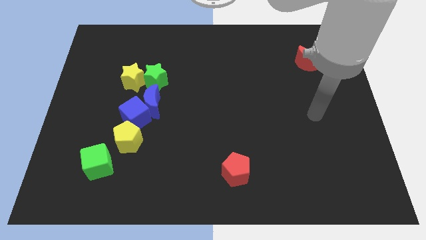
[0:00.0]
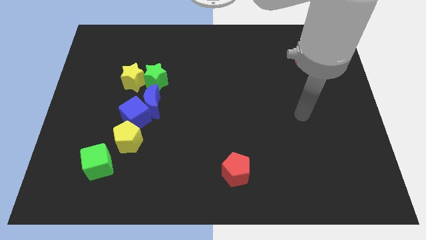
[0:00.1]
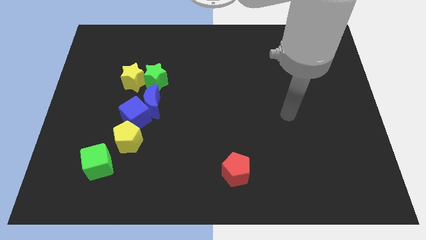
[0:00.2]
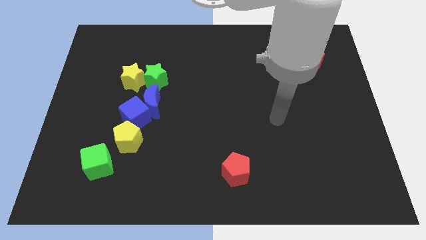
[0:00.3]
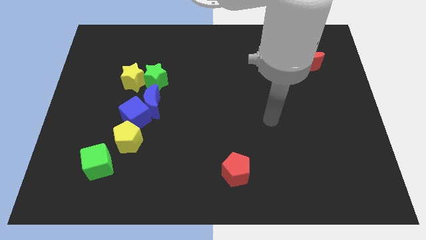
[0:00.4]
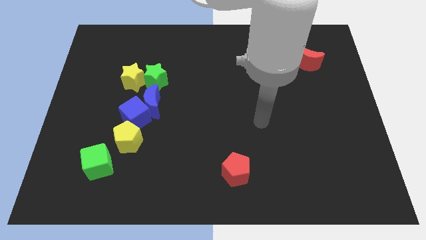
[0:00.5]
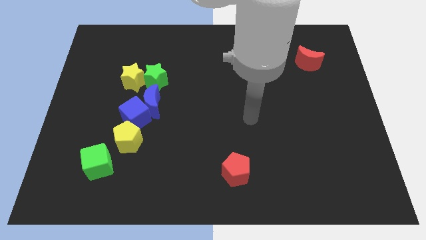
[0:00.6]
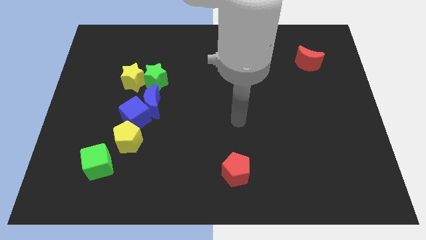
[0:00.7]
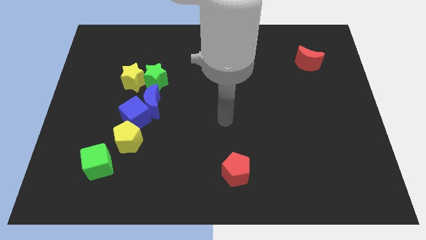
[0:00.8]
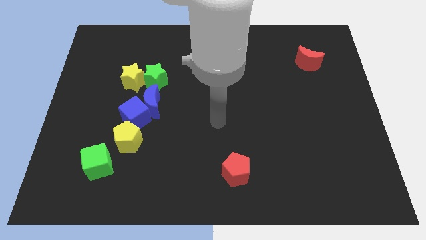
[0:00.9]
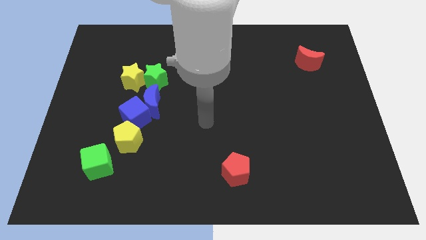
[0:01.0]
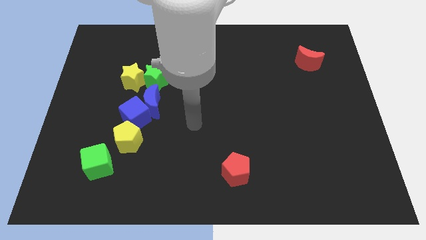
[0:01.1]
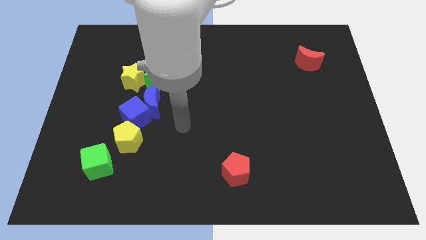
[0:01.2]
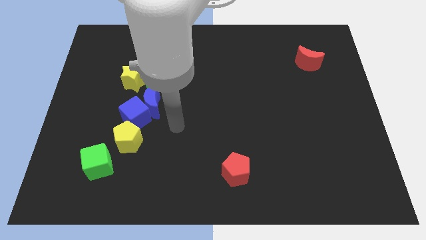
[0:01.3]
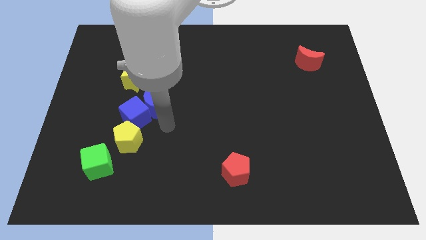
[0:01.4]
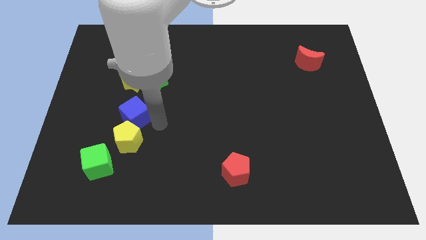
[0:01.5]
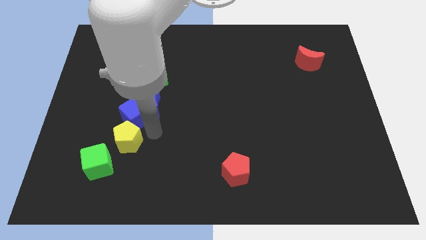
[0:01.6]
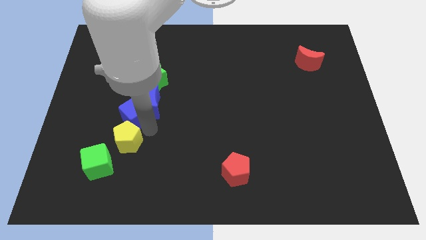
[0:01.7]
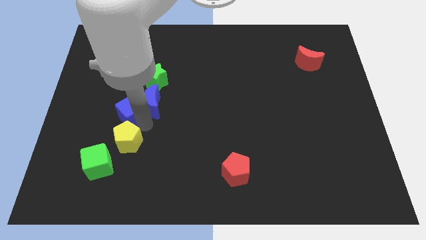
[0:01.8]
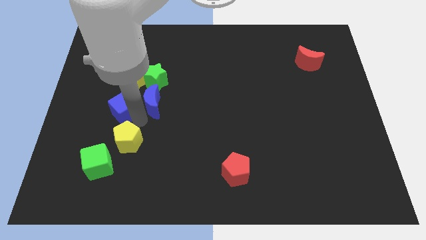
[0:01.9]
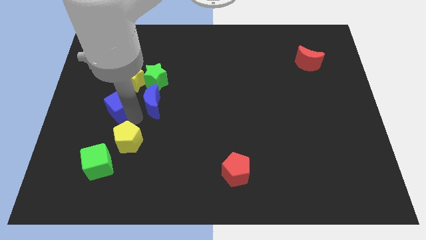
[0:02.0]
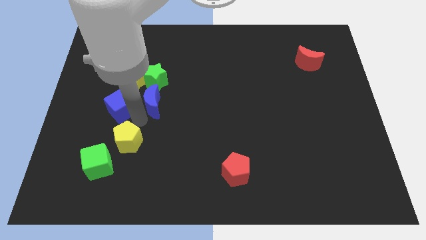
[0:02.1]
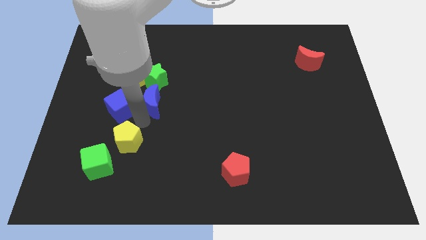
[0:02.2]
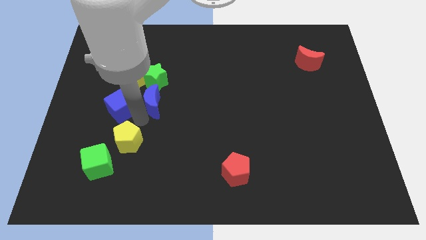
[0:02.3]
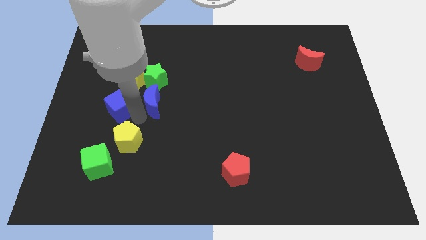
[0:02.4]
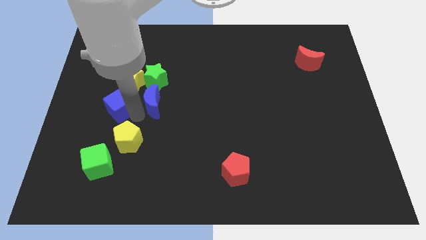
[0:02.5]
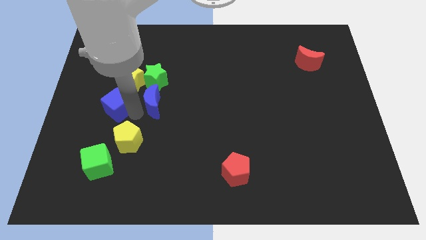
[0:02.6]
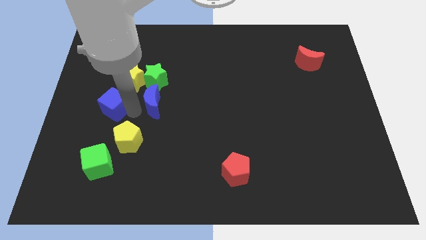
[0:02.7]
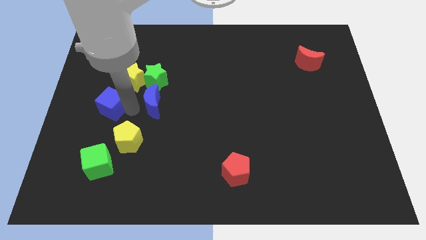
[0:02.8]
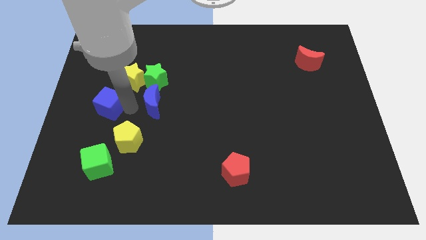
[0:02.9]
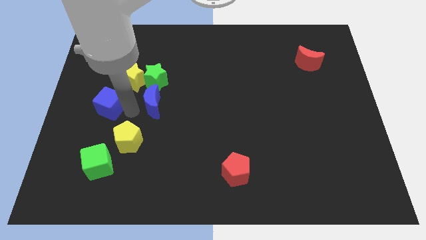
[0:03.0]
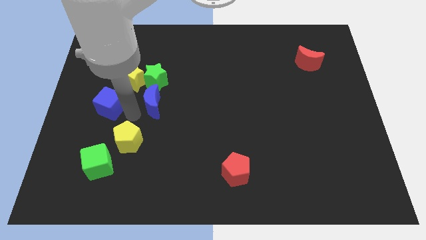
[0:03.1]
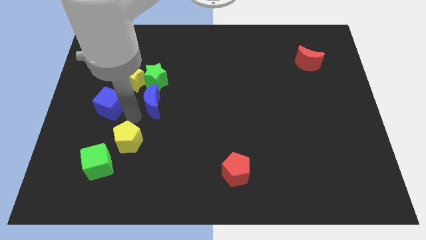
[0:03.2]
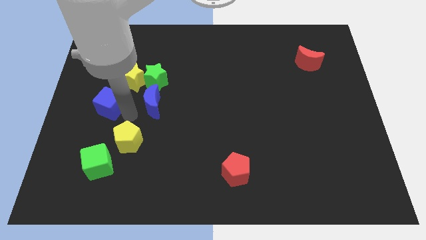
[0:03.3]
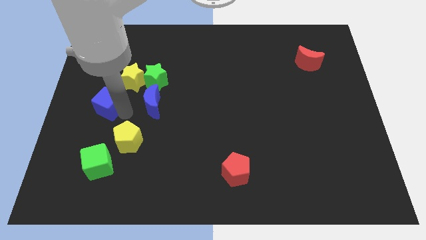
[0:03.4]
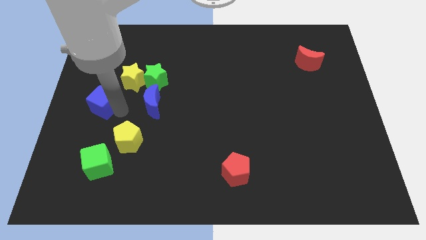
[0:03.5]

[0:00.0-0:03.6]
pull the blue cube apart from the blue moon and yellow pentagon

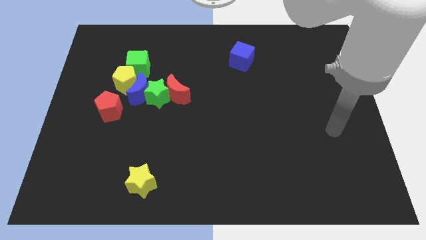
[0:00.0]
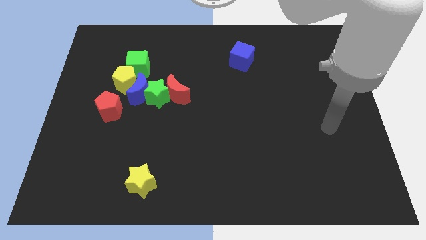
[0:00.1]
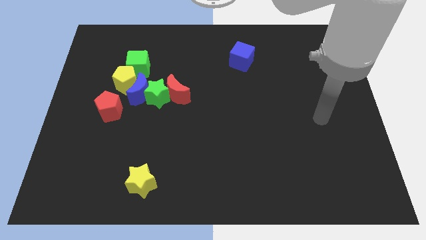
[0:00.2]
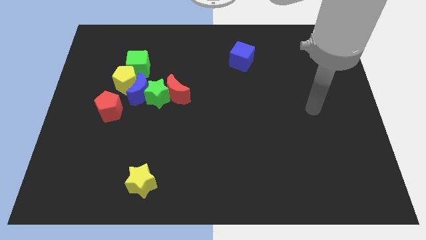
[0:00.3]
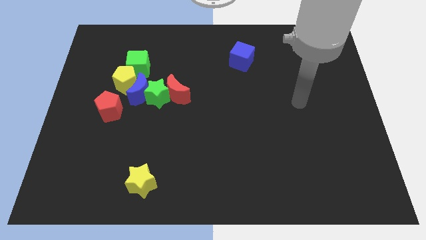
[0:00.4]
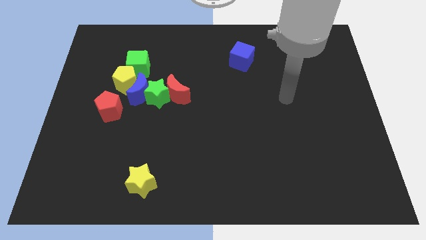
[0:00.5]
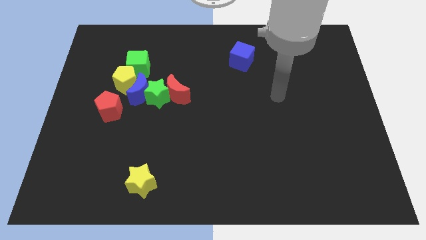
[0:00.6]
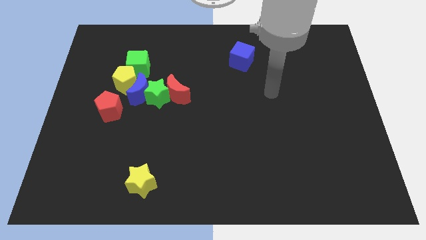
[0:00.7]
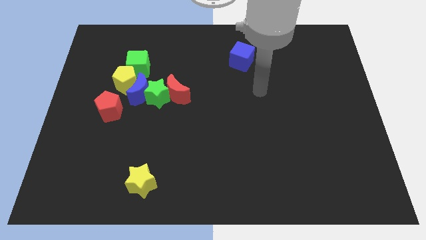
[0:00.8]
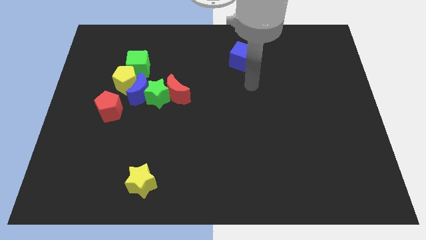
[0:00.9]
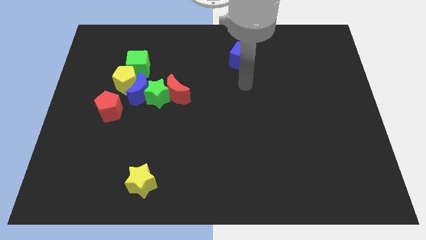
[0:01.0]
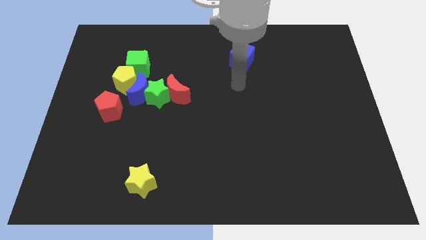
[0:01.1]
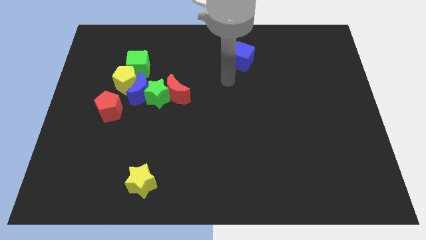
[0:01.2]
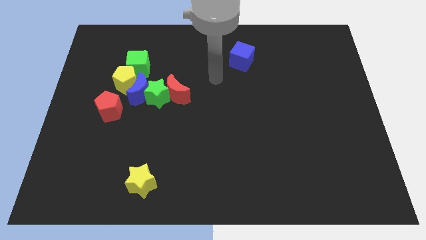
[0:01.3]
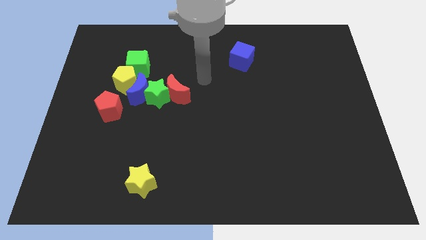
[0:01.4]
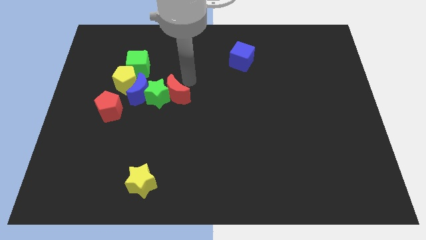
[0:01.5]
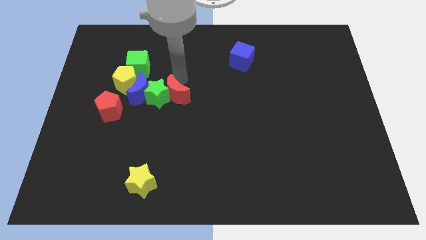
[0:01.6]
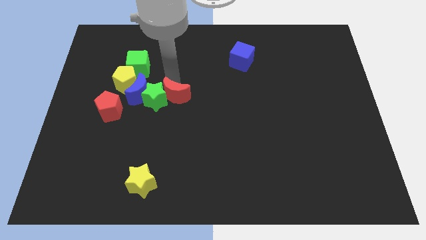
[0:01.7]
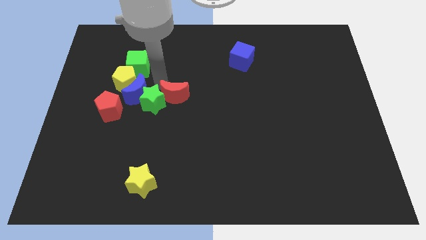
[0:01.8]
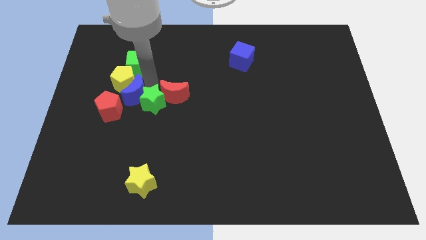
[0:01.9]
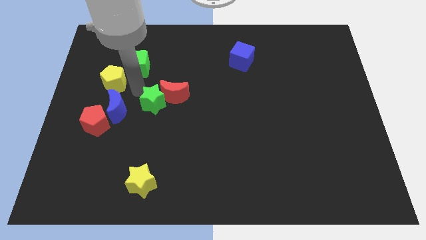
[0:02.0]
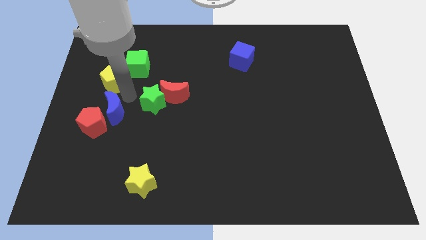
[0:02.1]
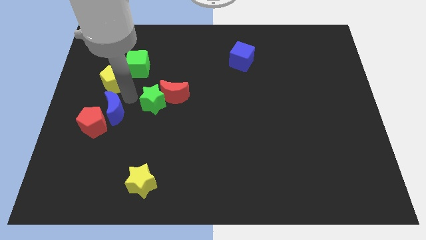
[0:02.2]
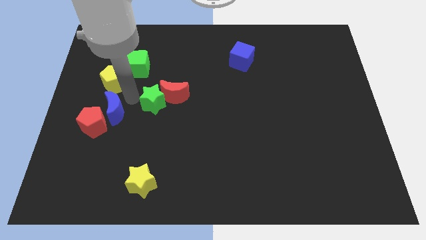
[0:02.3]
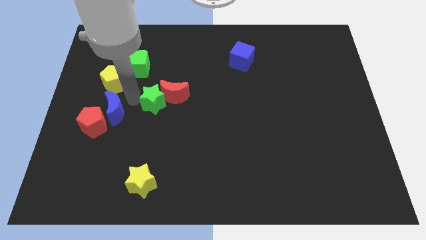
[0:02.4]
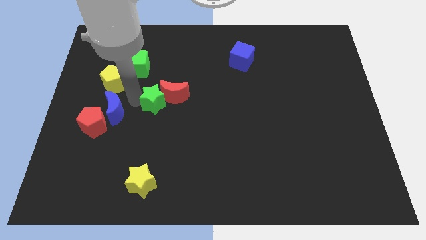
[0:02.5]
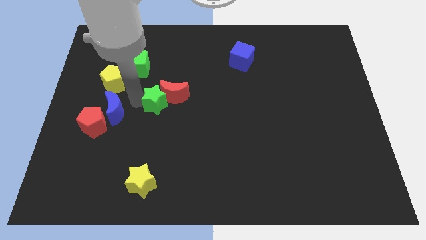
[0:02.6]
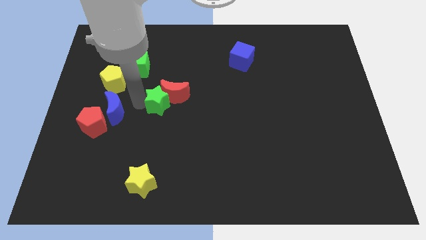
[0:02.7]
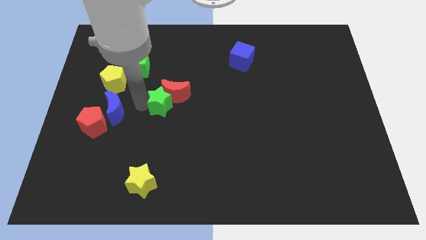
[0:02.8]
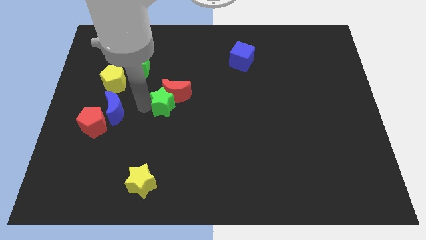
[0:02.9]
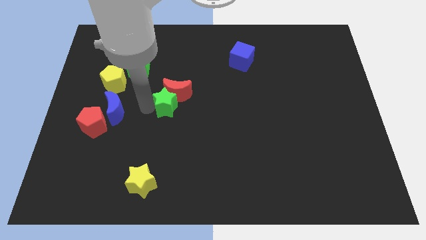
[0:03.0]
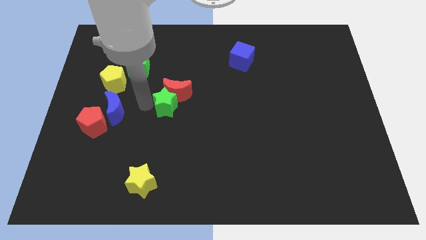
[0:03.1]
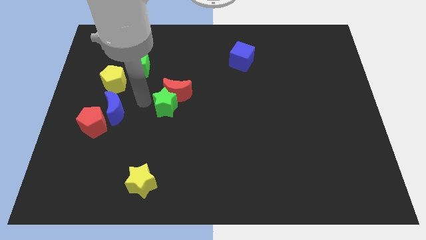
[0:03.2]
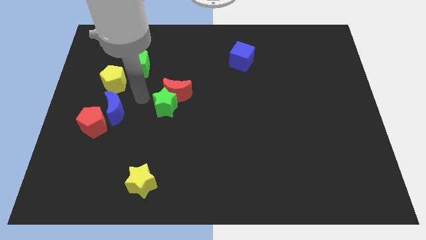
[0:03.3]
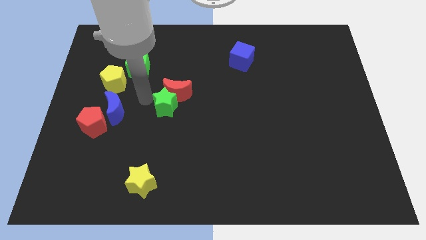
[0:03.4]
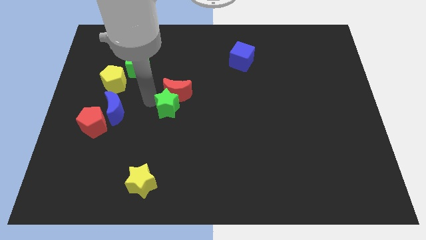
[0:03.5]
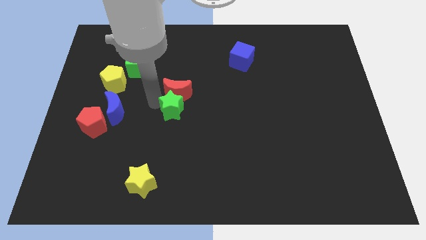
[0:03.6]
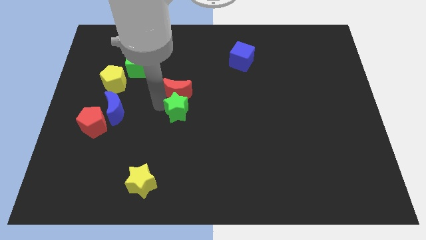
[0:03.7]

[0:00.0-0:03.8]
separate the green star from the blue moon, red moon, and yellow pentagon

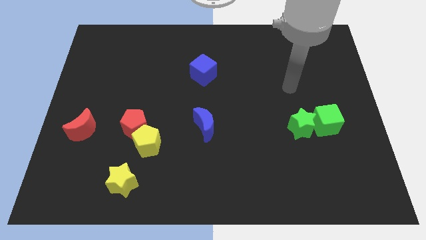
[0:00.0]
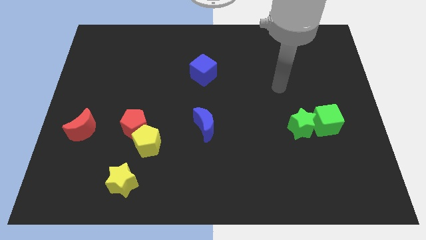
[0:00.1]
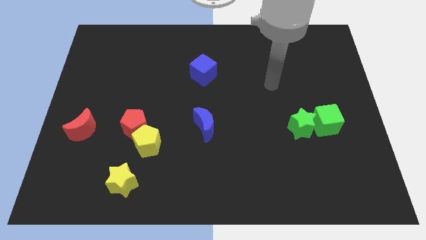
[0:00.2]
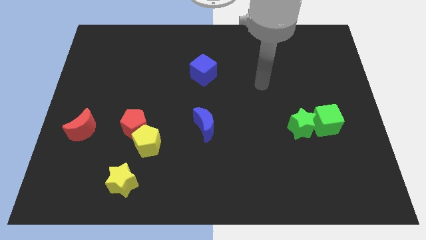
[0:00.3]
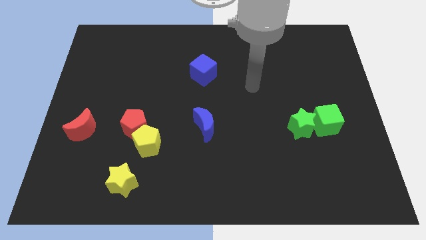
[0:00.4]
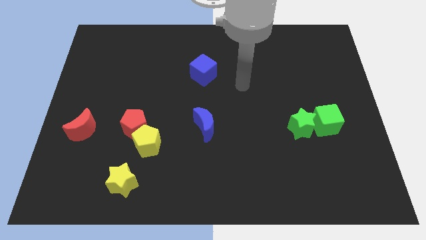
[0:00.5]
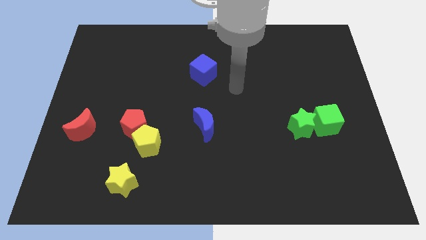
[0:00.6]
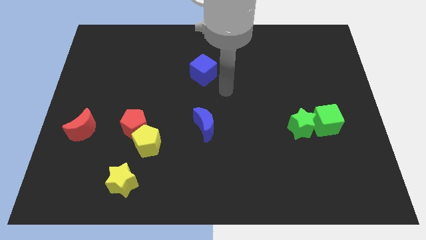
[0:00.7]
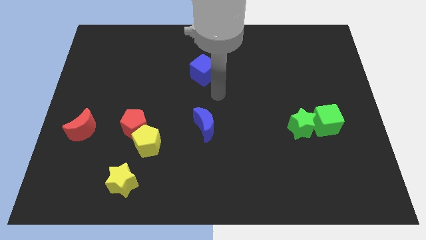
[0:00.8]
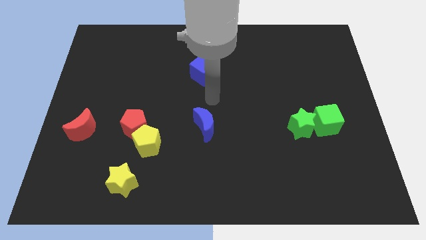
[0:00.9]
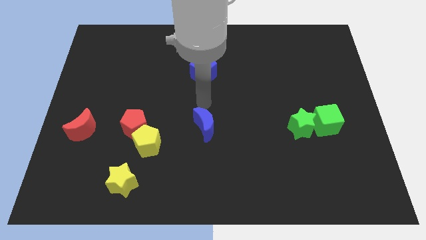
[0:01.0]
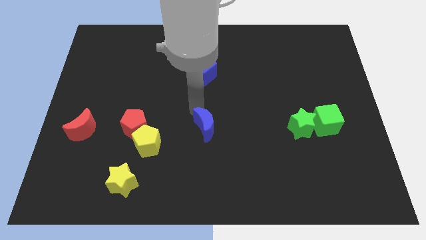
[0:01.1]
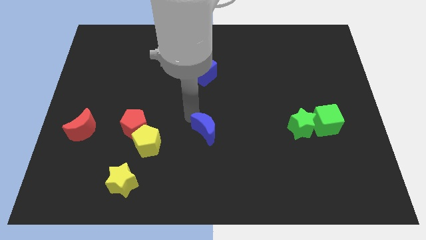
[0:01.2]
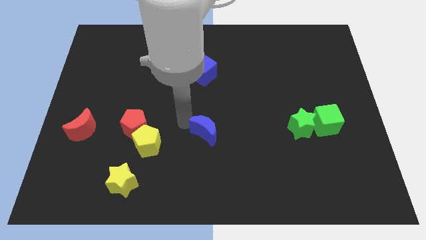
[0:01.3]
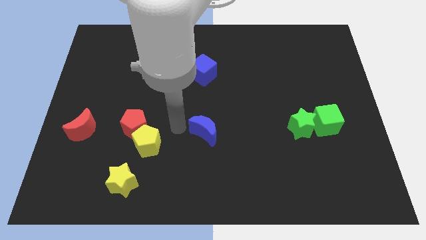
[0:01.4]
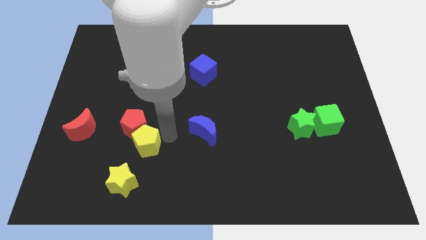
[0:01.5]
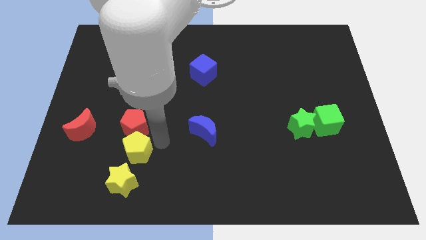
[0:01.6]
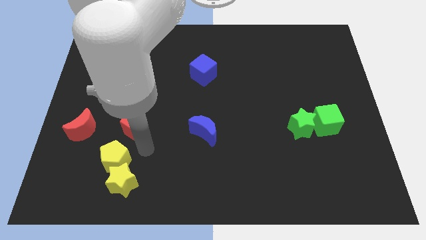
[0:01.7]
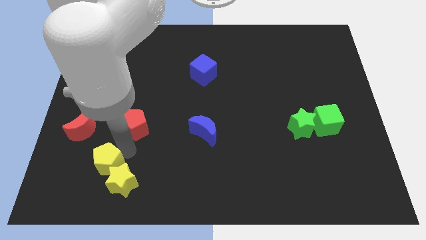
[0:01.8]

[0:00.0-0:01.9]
pull the red pentagon apart from the yellow pentagon
